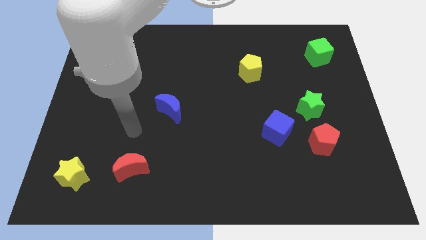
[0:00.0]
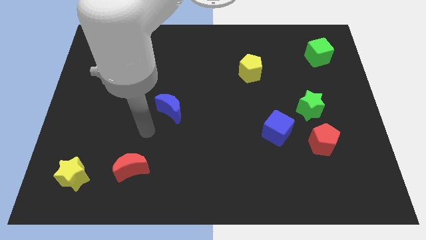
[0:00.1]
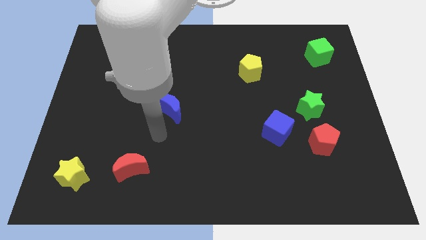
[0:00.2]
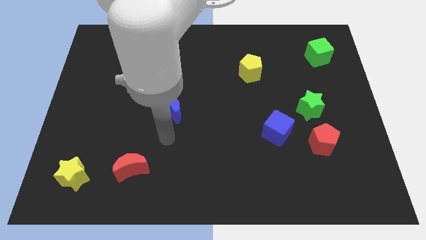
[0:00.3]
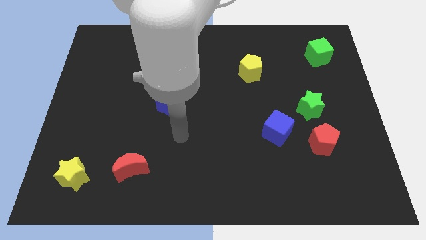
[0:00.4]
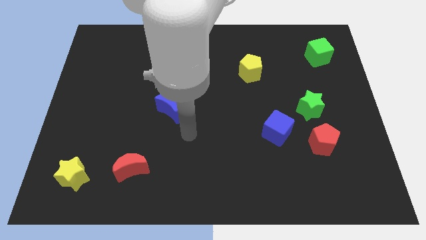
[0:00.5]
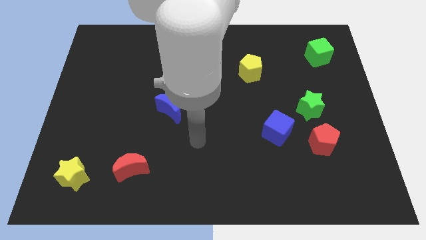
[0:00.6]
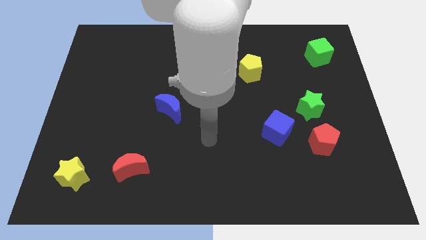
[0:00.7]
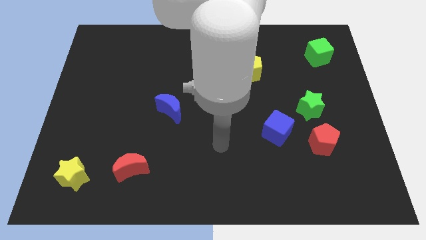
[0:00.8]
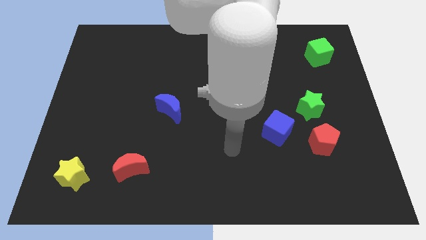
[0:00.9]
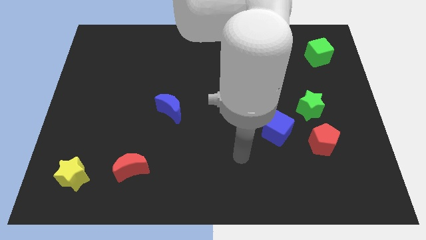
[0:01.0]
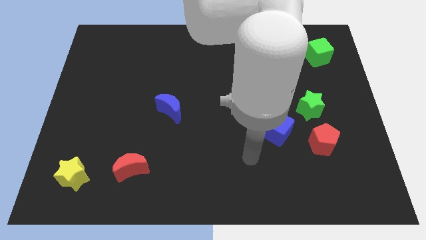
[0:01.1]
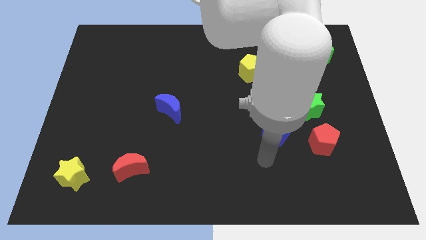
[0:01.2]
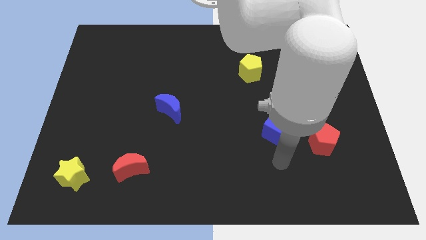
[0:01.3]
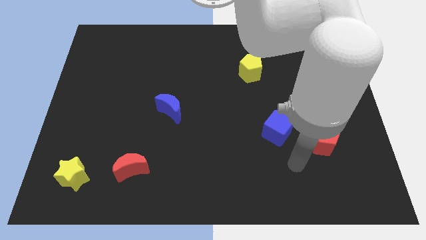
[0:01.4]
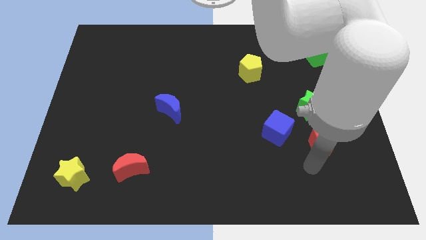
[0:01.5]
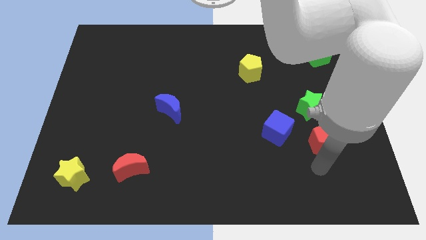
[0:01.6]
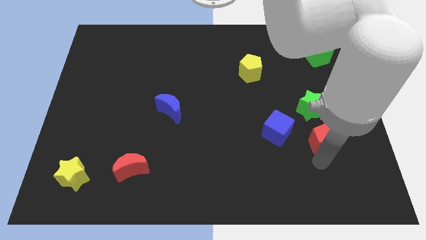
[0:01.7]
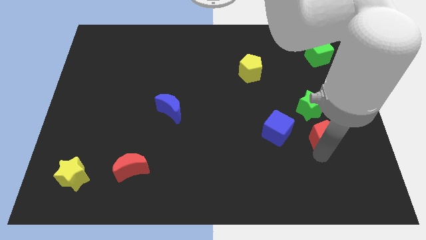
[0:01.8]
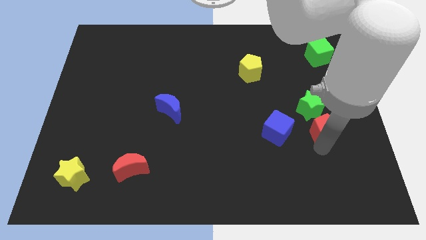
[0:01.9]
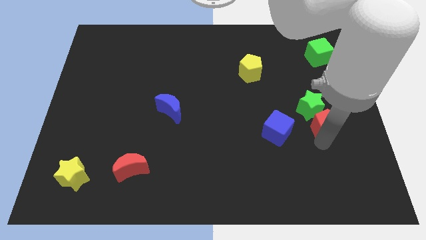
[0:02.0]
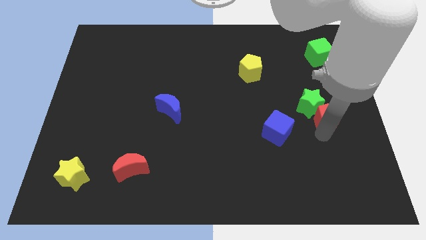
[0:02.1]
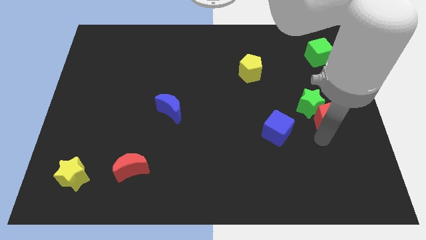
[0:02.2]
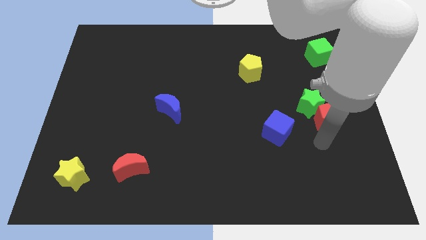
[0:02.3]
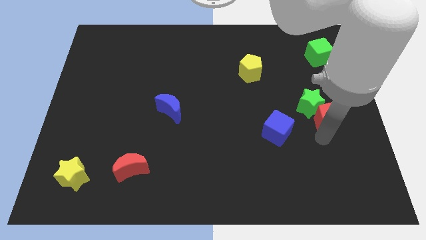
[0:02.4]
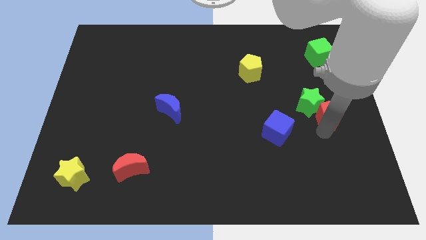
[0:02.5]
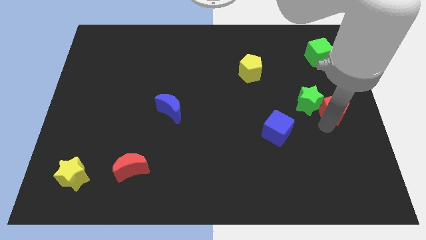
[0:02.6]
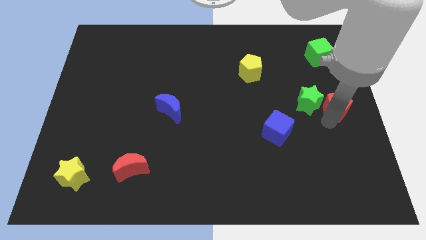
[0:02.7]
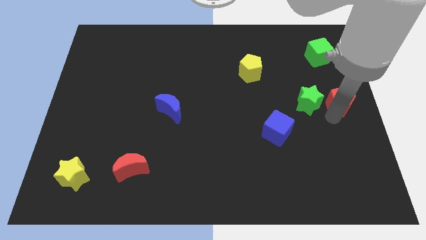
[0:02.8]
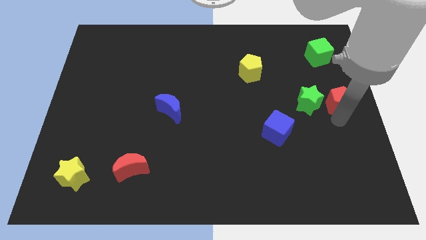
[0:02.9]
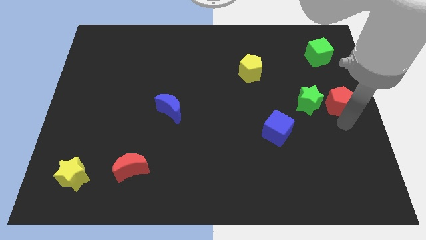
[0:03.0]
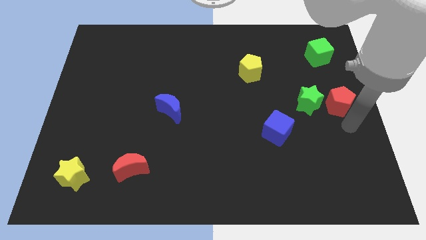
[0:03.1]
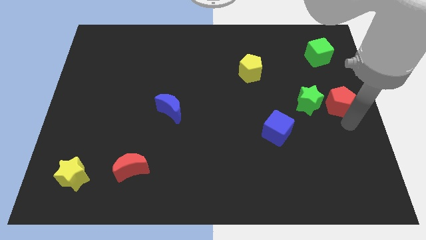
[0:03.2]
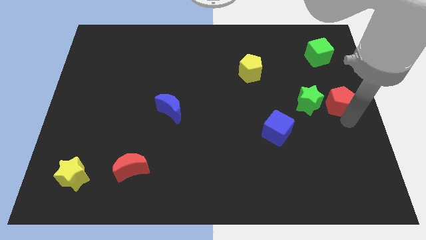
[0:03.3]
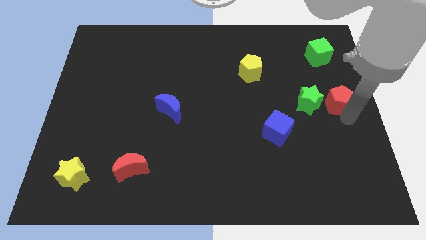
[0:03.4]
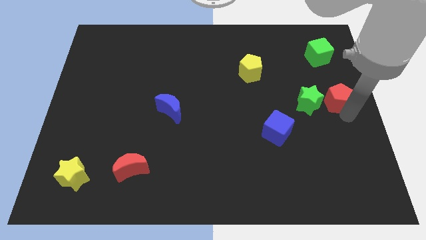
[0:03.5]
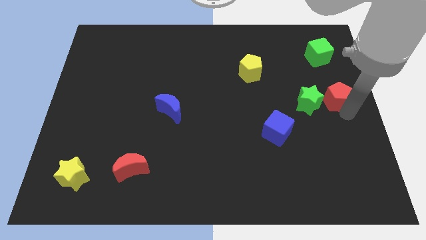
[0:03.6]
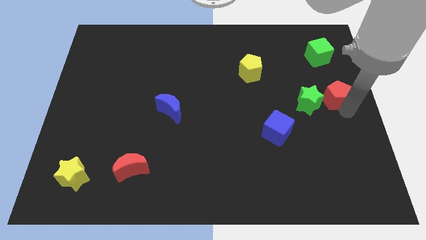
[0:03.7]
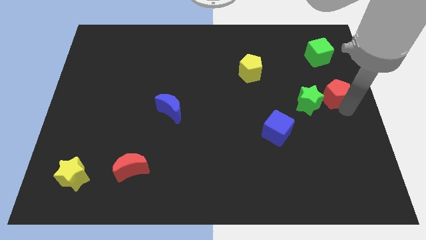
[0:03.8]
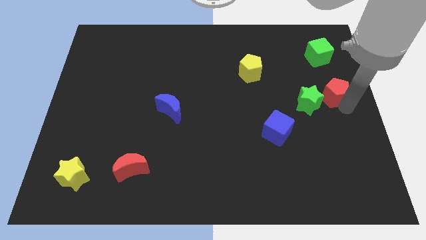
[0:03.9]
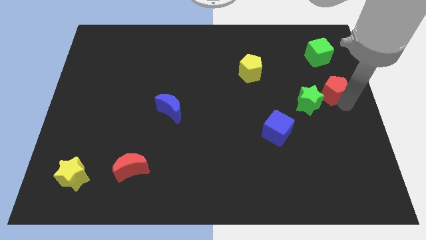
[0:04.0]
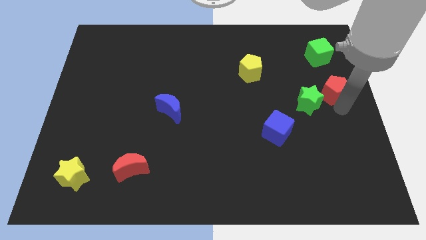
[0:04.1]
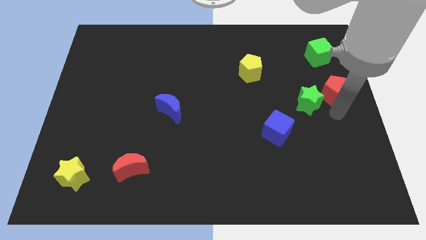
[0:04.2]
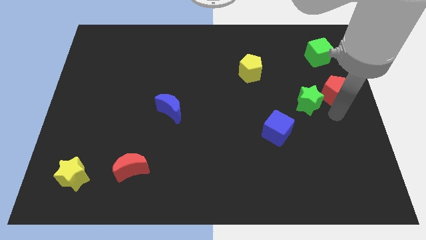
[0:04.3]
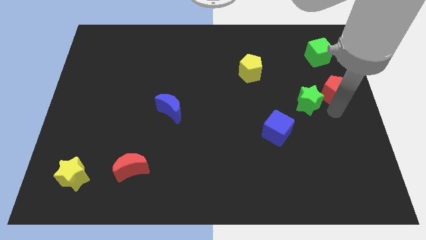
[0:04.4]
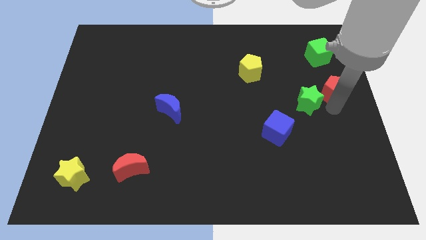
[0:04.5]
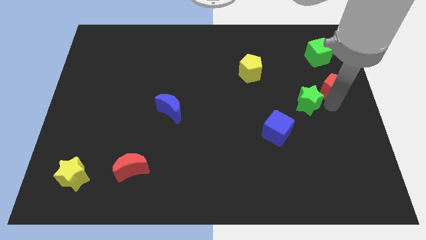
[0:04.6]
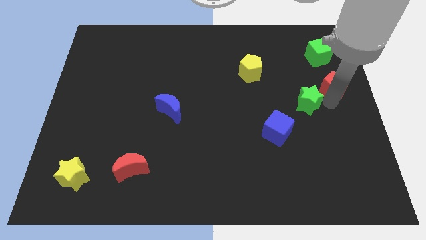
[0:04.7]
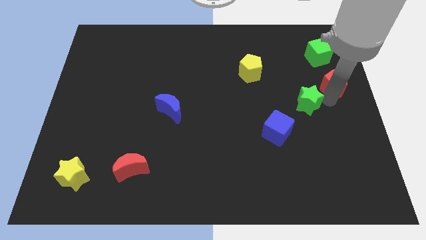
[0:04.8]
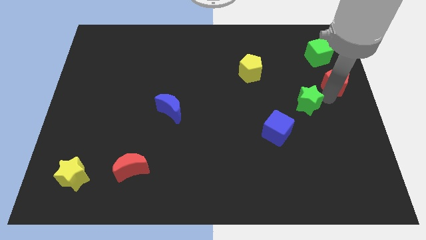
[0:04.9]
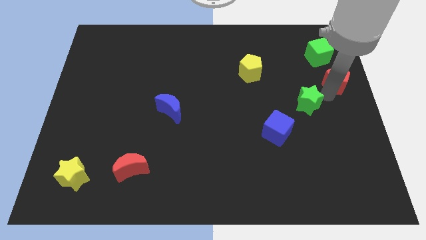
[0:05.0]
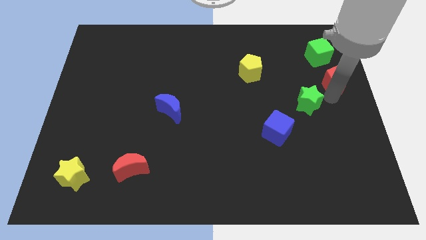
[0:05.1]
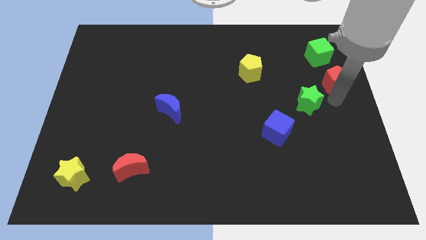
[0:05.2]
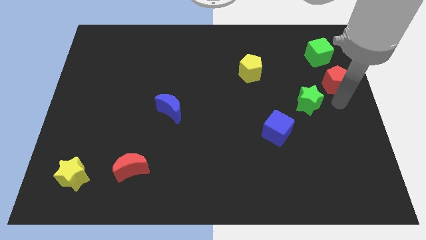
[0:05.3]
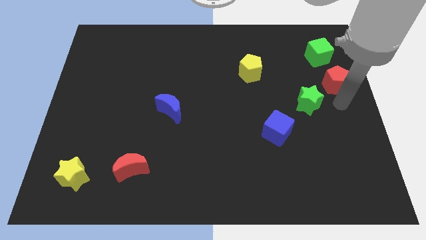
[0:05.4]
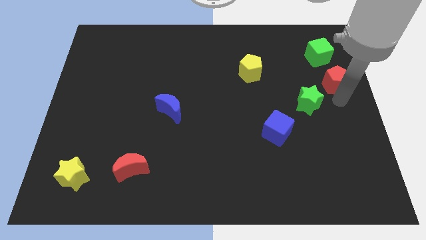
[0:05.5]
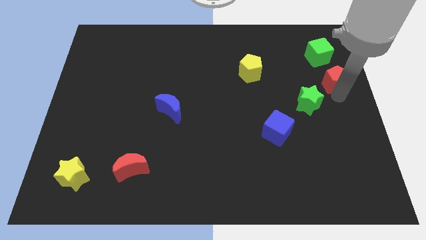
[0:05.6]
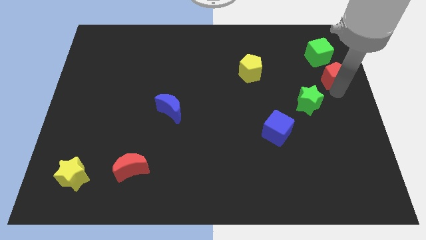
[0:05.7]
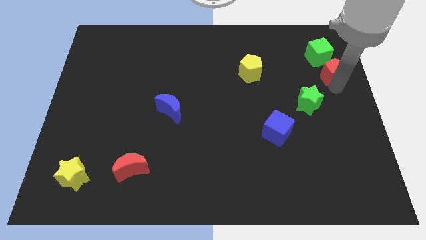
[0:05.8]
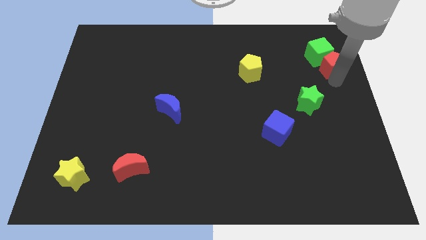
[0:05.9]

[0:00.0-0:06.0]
push the red pentagon close to the green cube
